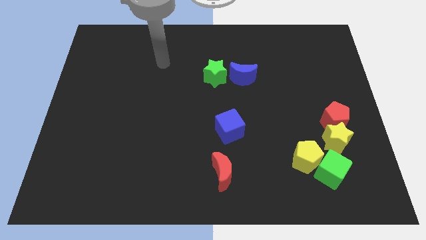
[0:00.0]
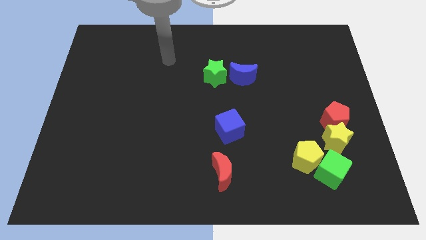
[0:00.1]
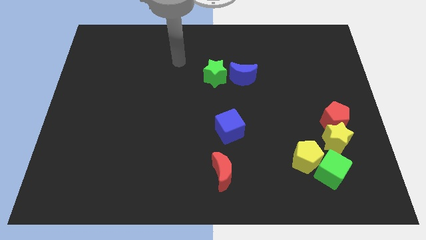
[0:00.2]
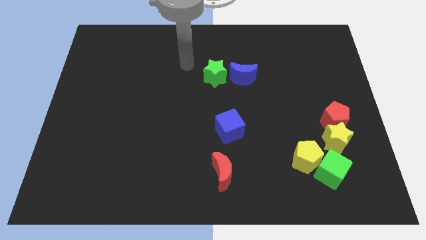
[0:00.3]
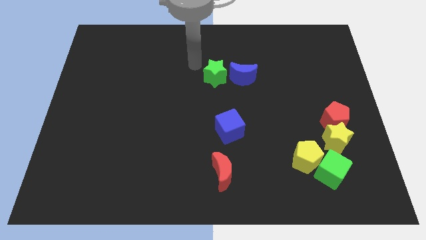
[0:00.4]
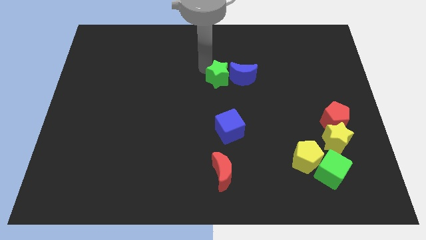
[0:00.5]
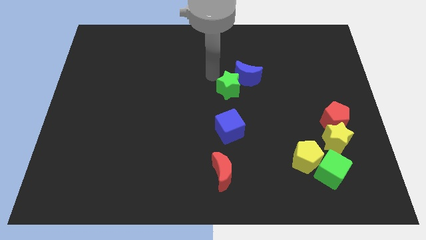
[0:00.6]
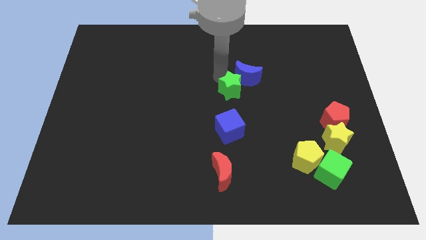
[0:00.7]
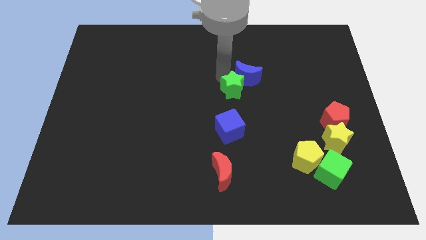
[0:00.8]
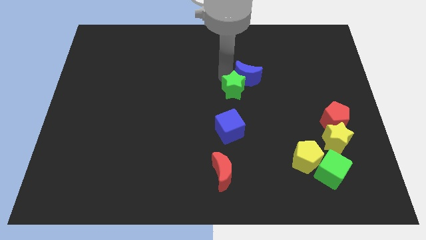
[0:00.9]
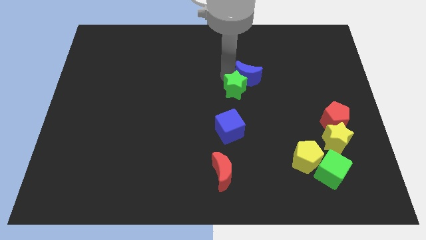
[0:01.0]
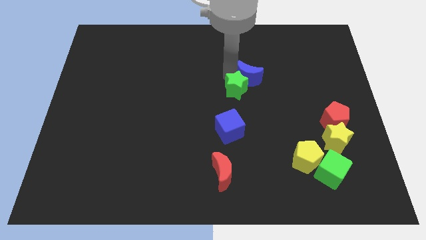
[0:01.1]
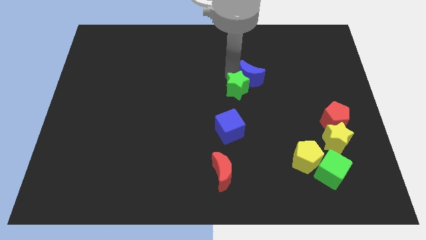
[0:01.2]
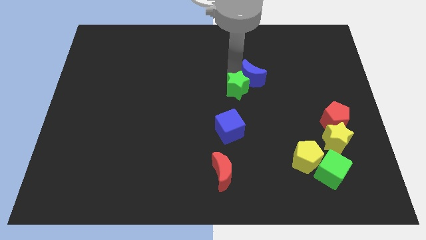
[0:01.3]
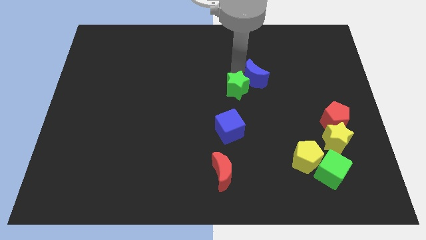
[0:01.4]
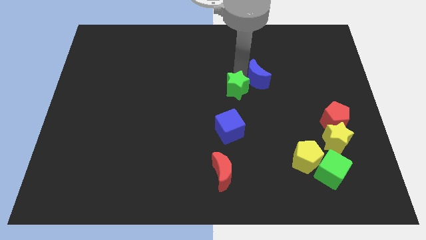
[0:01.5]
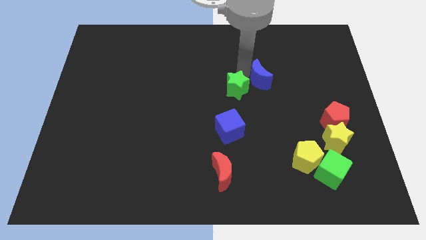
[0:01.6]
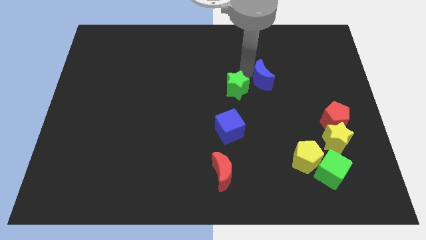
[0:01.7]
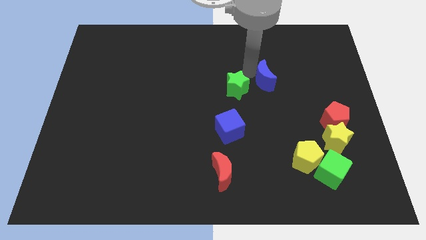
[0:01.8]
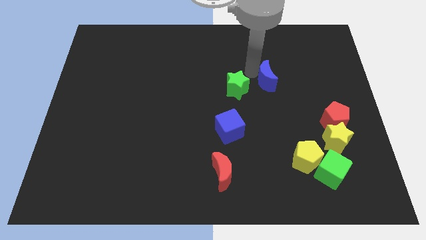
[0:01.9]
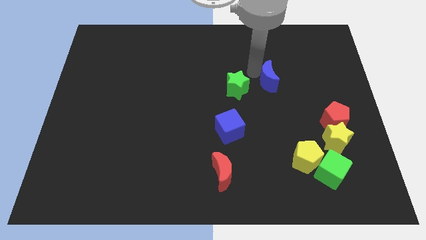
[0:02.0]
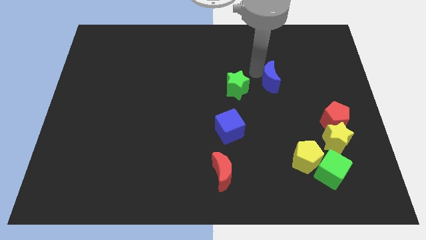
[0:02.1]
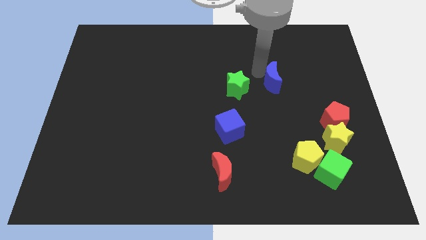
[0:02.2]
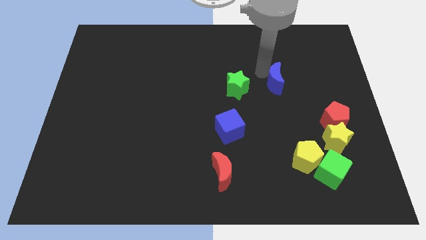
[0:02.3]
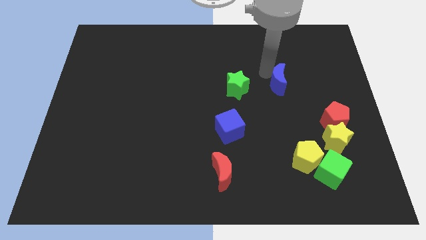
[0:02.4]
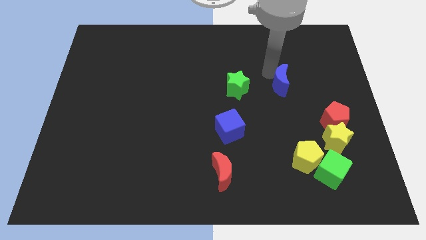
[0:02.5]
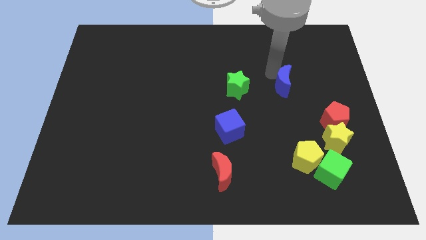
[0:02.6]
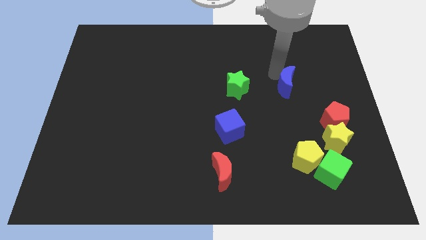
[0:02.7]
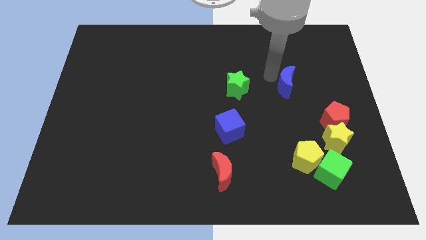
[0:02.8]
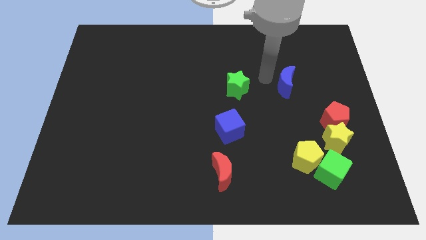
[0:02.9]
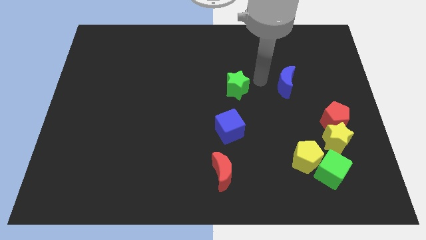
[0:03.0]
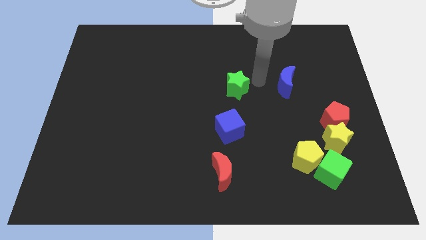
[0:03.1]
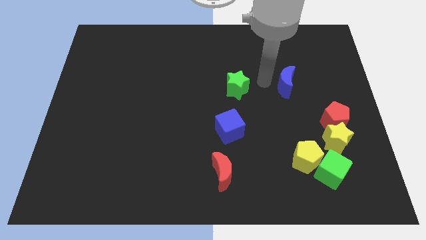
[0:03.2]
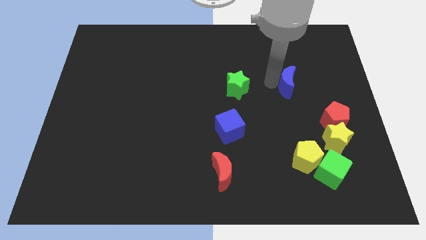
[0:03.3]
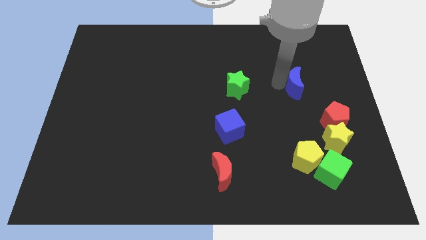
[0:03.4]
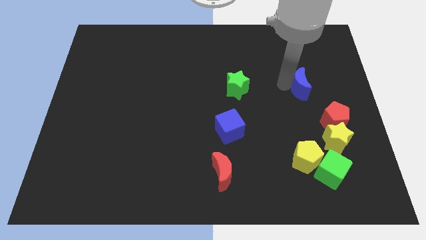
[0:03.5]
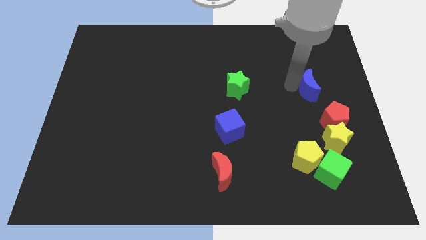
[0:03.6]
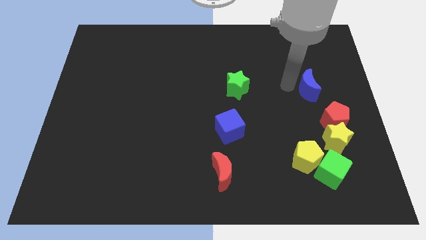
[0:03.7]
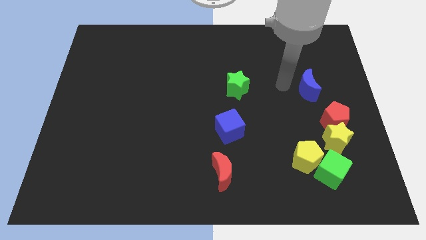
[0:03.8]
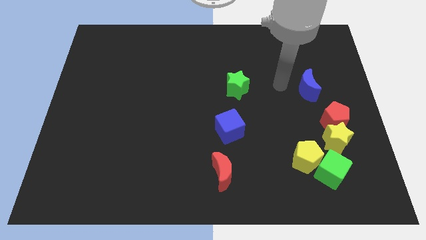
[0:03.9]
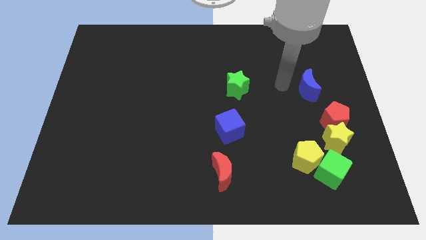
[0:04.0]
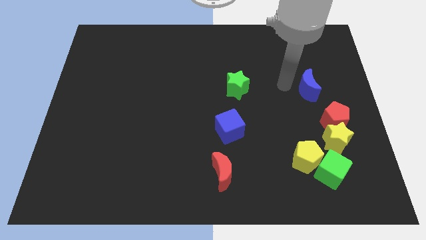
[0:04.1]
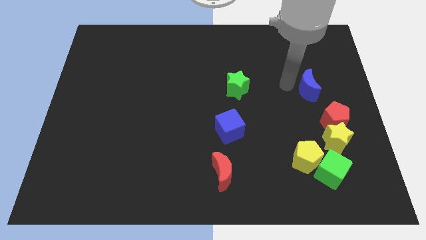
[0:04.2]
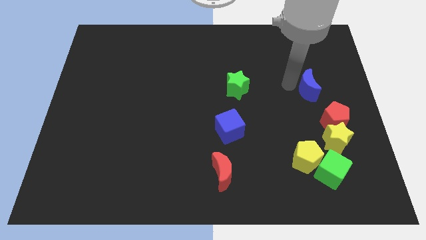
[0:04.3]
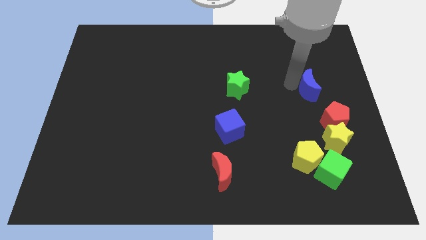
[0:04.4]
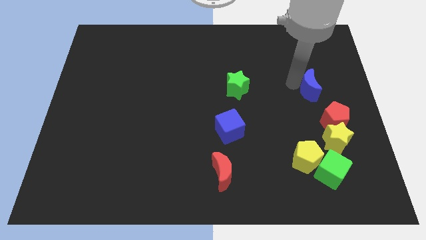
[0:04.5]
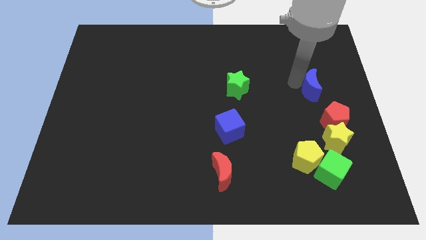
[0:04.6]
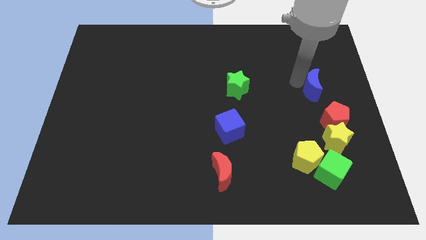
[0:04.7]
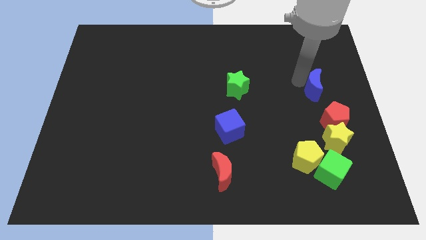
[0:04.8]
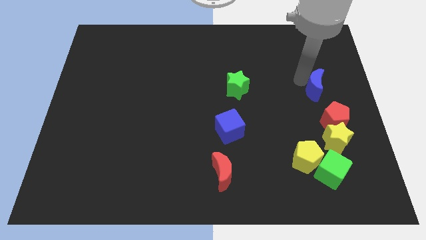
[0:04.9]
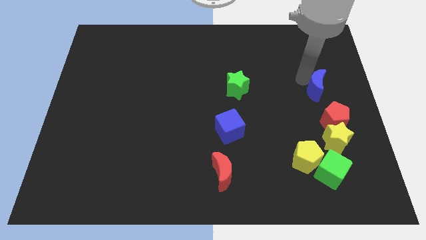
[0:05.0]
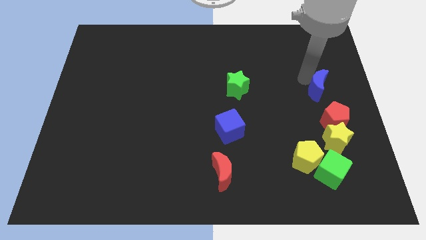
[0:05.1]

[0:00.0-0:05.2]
slide the blue moon to the right side of the board

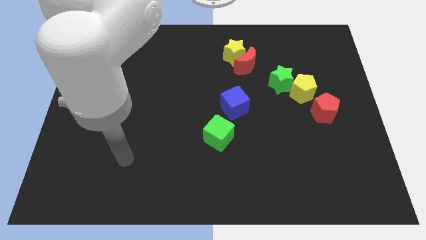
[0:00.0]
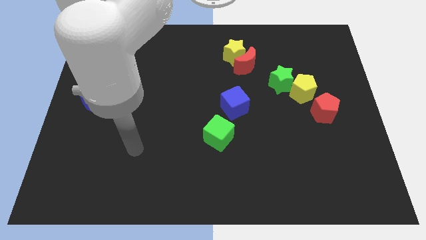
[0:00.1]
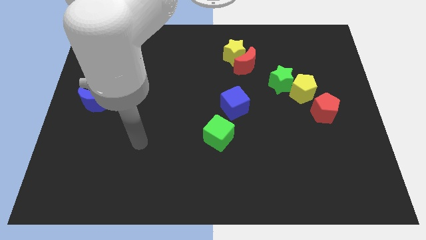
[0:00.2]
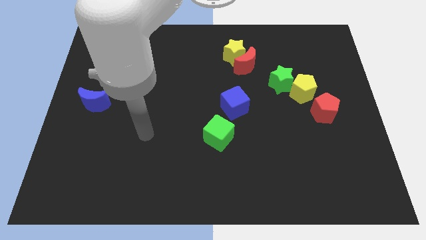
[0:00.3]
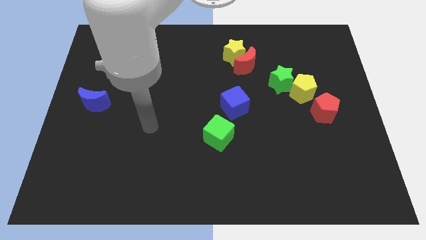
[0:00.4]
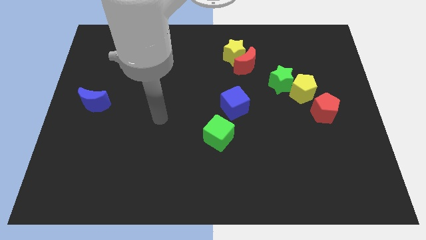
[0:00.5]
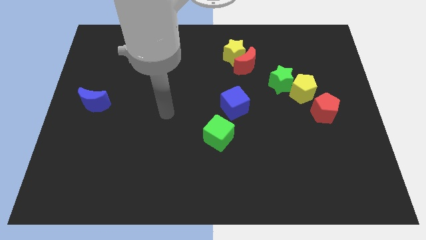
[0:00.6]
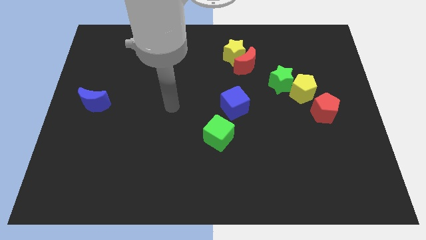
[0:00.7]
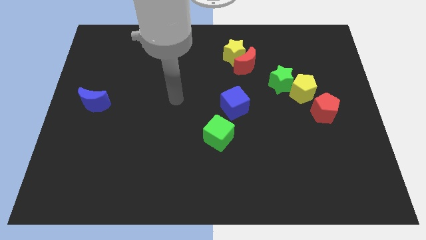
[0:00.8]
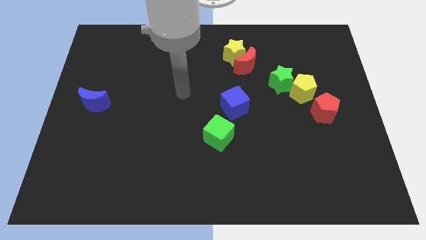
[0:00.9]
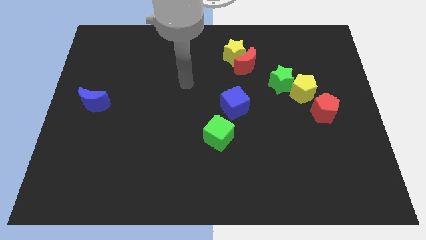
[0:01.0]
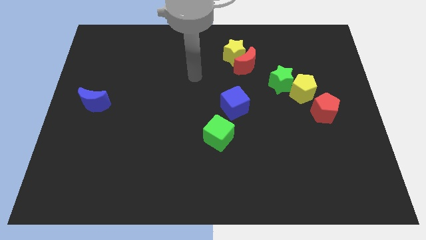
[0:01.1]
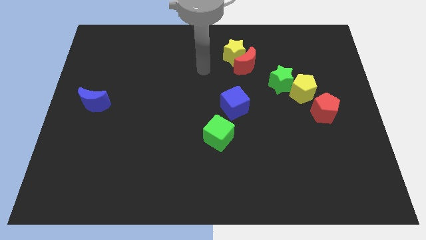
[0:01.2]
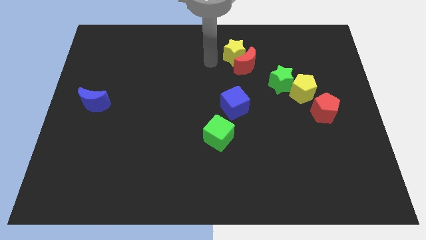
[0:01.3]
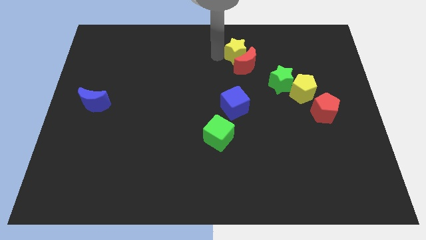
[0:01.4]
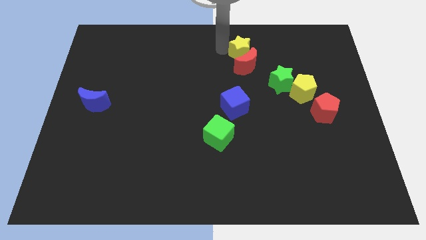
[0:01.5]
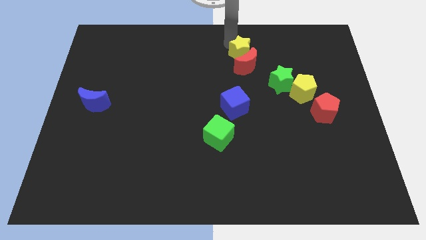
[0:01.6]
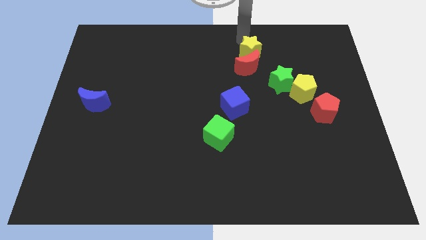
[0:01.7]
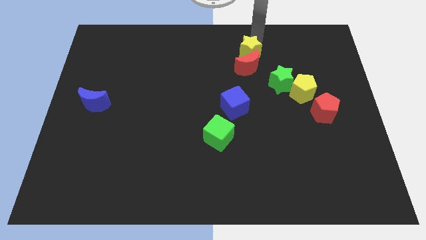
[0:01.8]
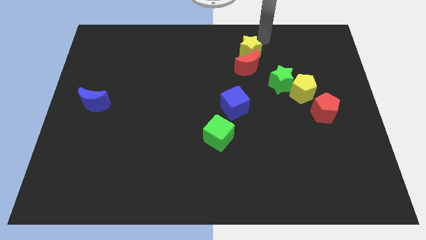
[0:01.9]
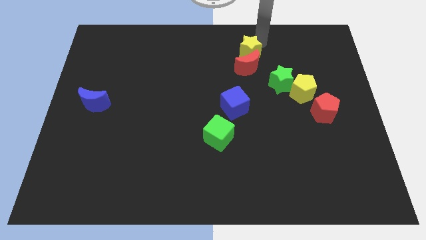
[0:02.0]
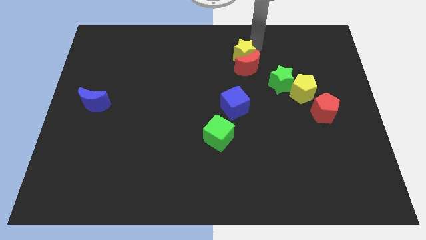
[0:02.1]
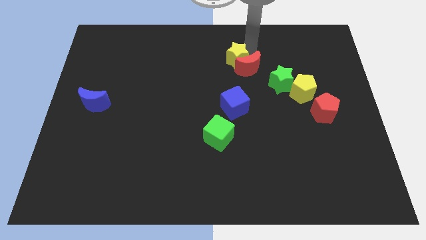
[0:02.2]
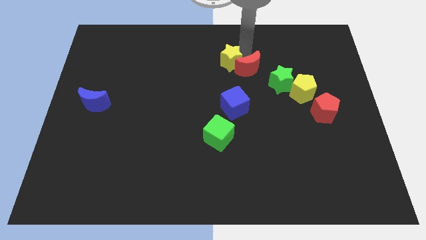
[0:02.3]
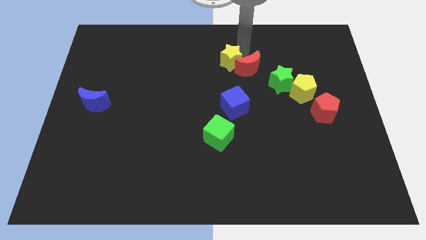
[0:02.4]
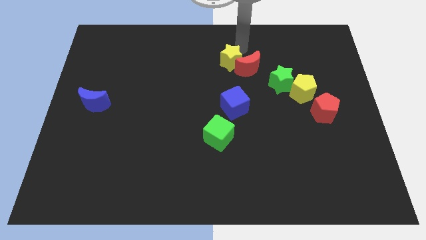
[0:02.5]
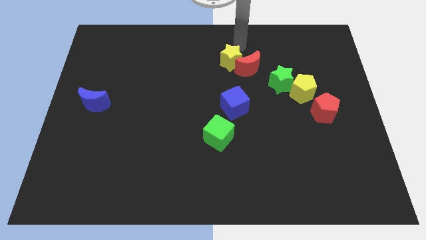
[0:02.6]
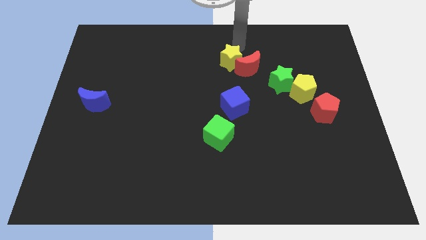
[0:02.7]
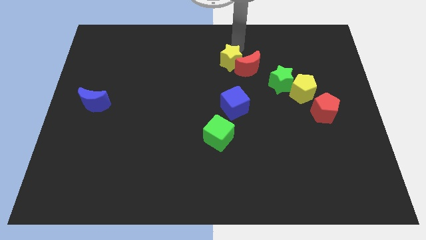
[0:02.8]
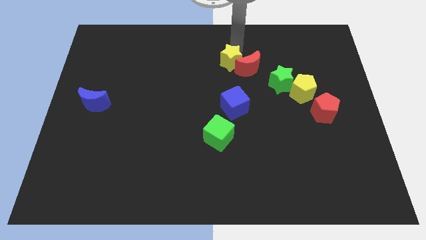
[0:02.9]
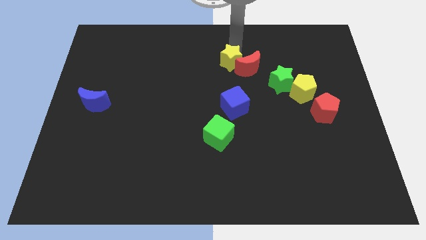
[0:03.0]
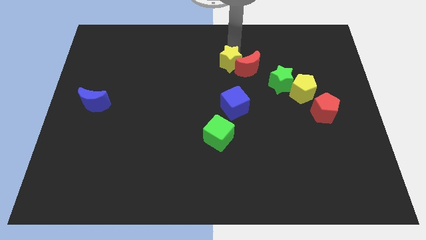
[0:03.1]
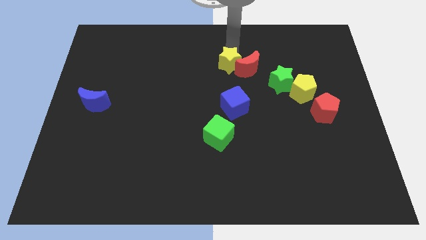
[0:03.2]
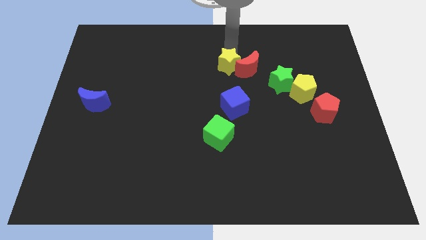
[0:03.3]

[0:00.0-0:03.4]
put the yellow star to the center of the board
